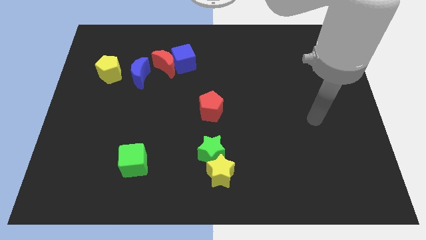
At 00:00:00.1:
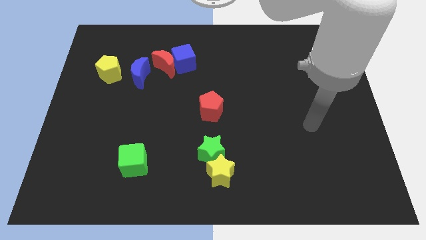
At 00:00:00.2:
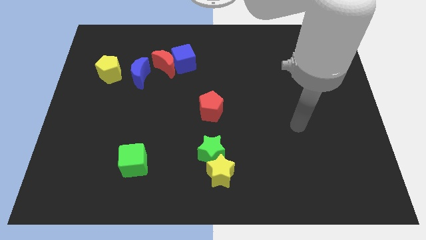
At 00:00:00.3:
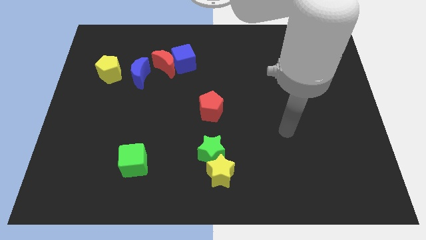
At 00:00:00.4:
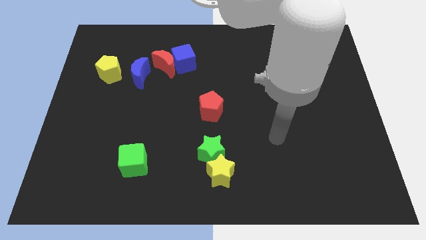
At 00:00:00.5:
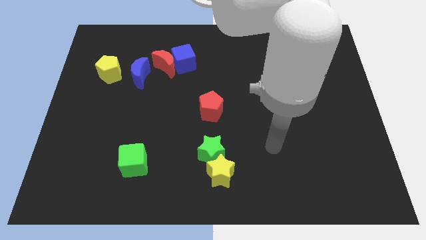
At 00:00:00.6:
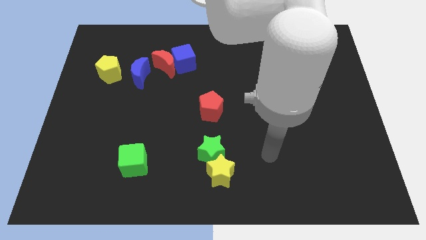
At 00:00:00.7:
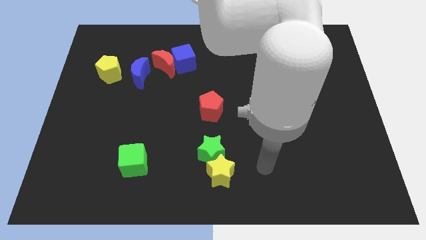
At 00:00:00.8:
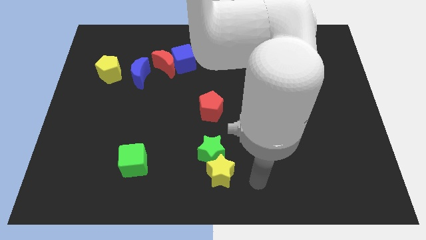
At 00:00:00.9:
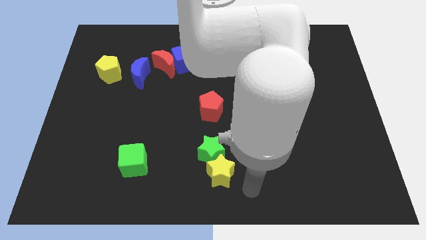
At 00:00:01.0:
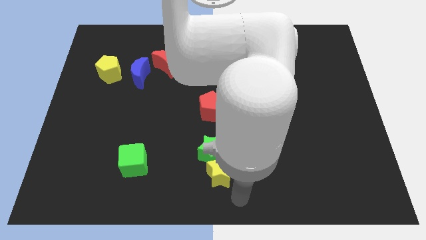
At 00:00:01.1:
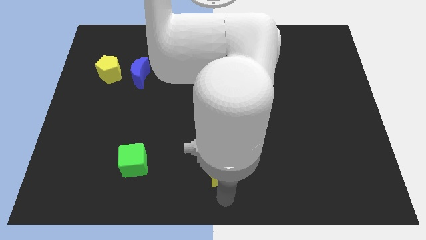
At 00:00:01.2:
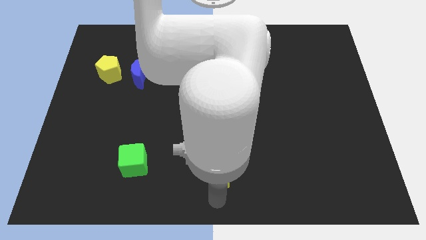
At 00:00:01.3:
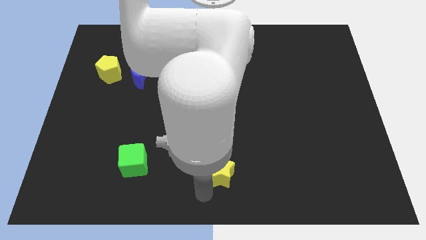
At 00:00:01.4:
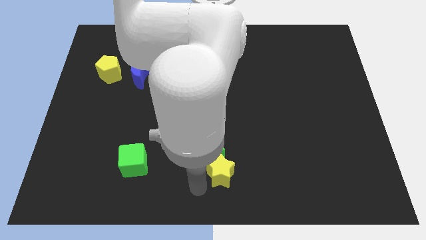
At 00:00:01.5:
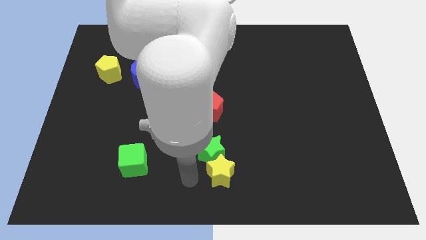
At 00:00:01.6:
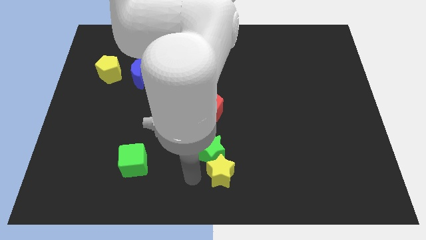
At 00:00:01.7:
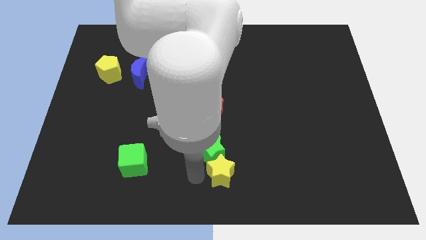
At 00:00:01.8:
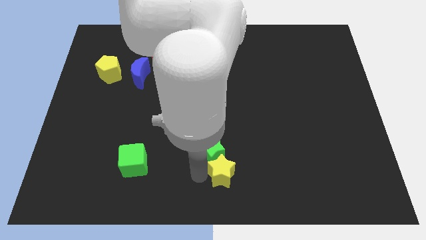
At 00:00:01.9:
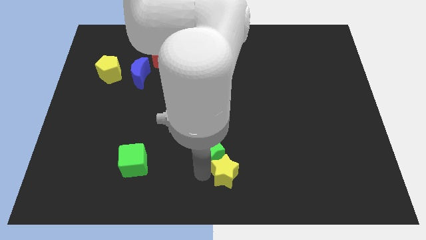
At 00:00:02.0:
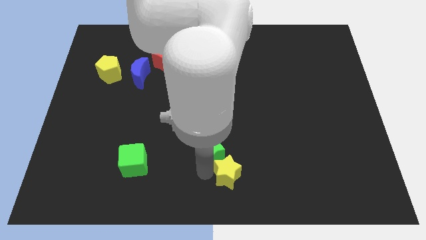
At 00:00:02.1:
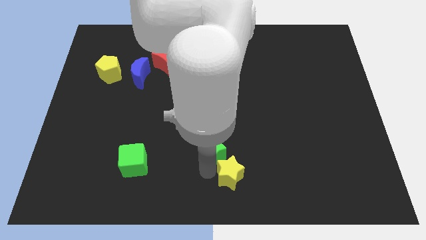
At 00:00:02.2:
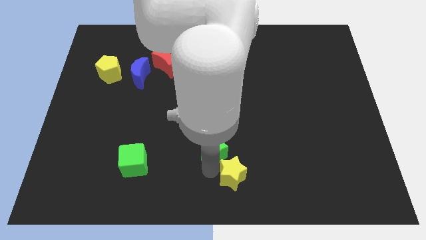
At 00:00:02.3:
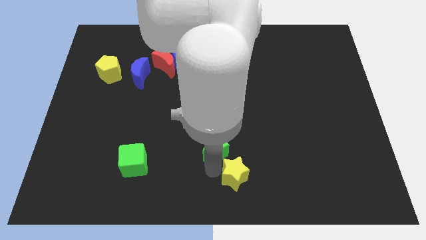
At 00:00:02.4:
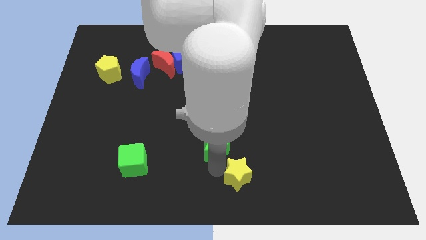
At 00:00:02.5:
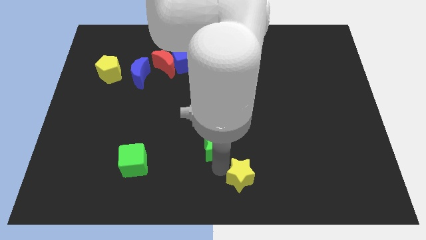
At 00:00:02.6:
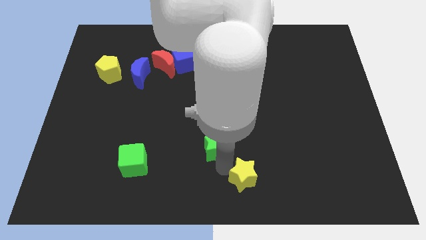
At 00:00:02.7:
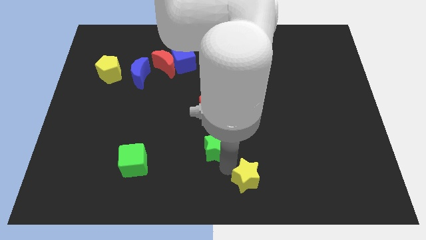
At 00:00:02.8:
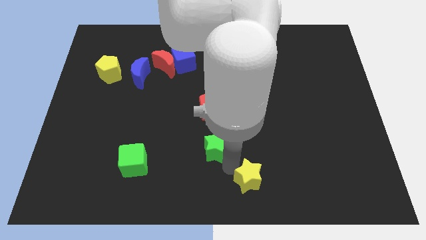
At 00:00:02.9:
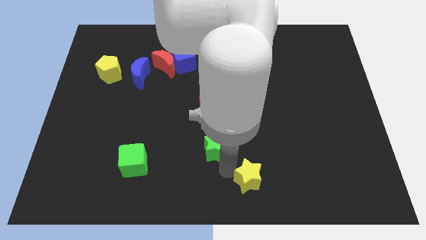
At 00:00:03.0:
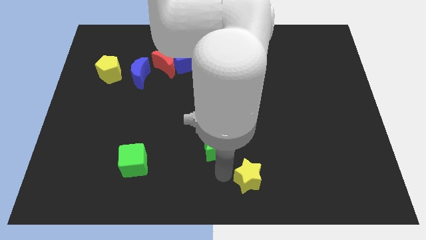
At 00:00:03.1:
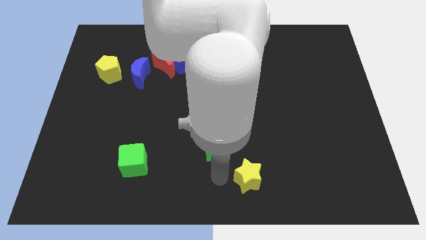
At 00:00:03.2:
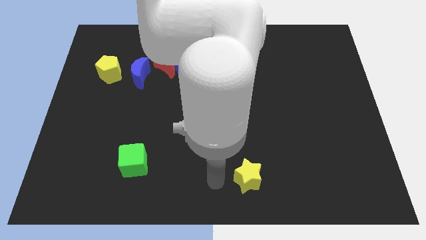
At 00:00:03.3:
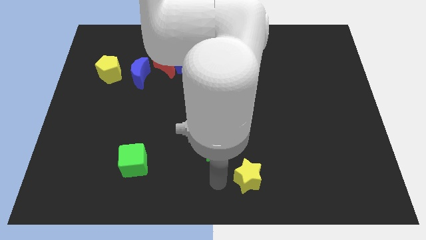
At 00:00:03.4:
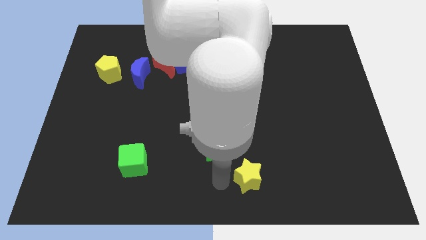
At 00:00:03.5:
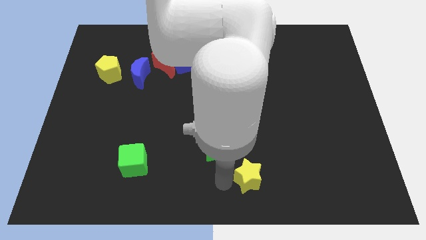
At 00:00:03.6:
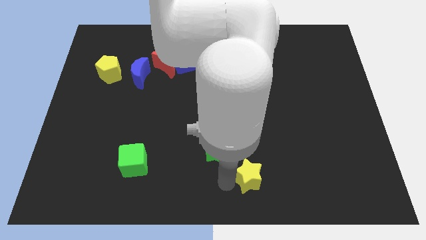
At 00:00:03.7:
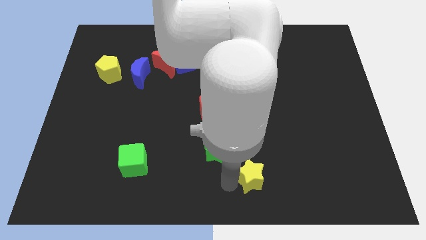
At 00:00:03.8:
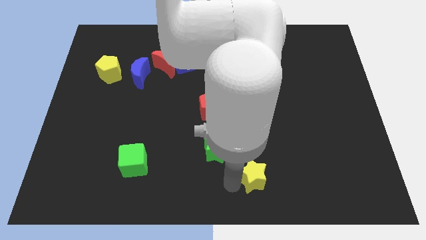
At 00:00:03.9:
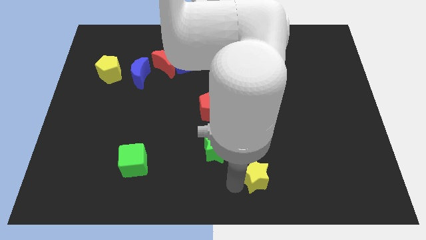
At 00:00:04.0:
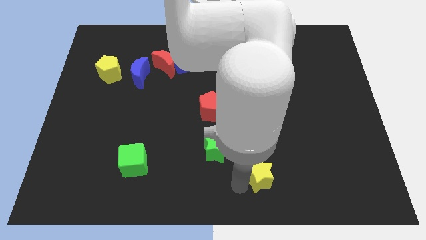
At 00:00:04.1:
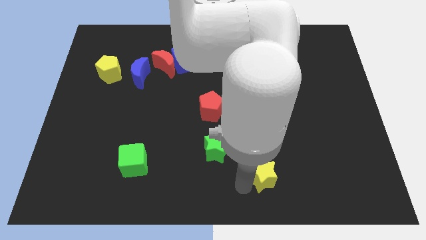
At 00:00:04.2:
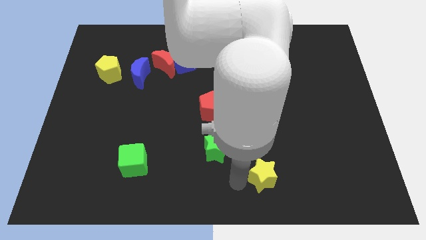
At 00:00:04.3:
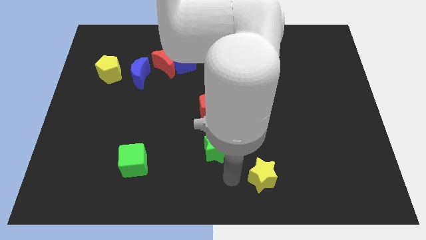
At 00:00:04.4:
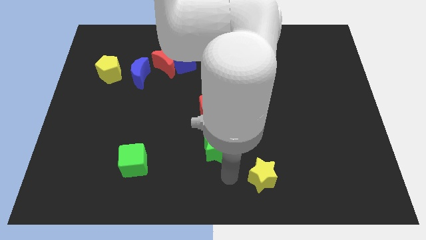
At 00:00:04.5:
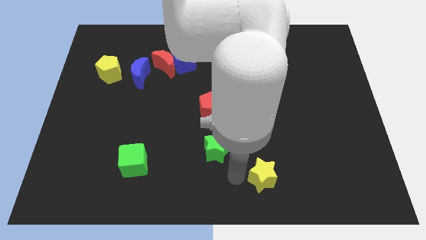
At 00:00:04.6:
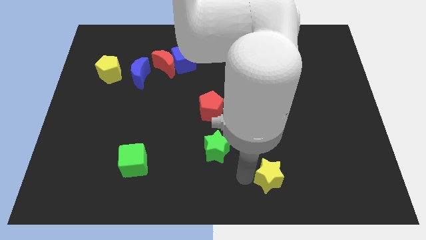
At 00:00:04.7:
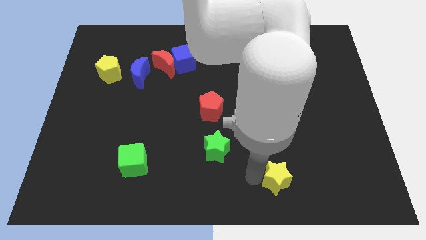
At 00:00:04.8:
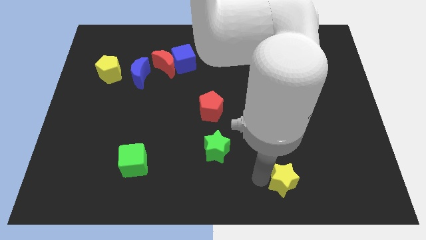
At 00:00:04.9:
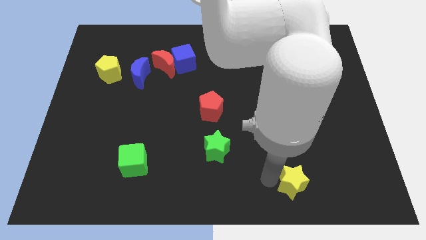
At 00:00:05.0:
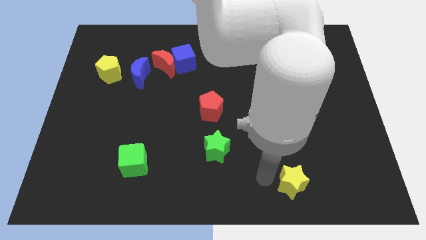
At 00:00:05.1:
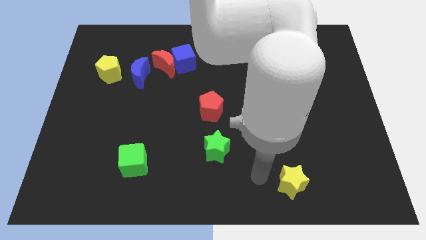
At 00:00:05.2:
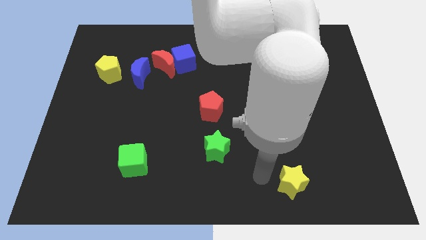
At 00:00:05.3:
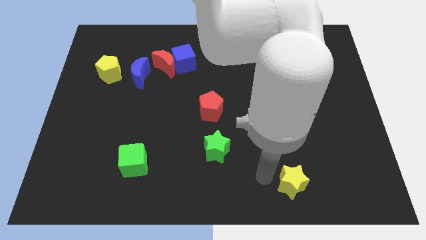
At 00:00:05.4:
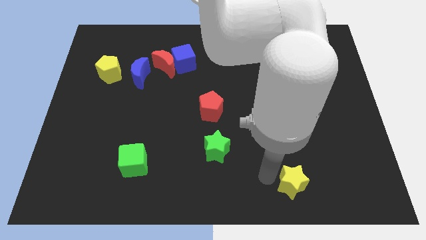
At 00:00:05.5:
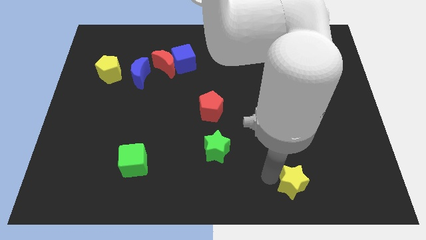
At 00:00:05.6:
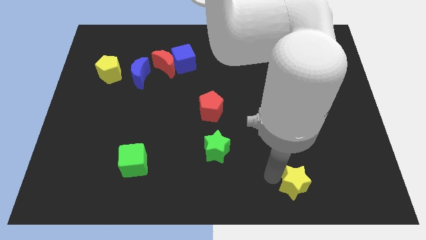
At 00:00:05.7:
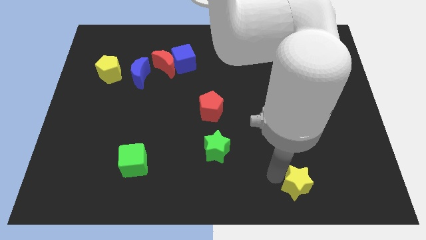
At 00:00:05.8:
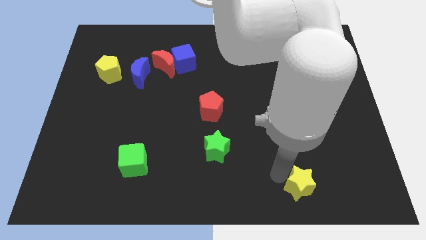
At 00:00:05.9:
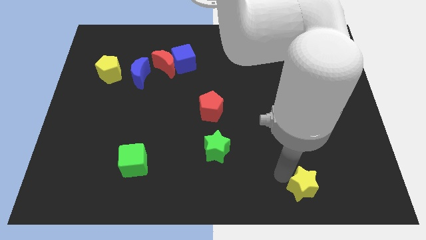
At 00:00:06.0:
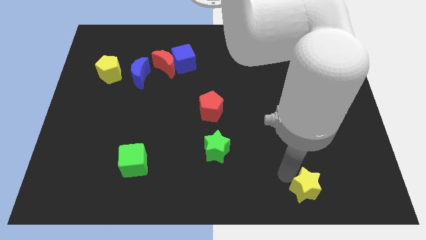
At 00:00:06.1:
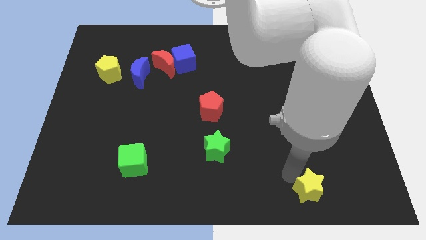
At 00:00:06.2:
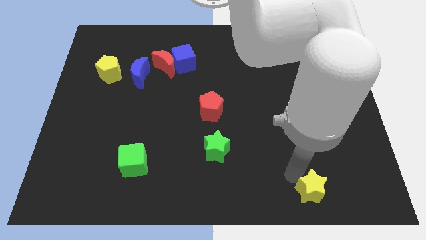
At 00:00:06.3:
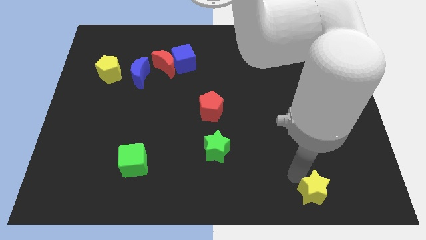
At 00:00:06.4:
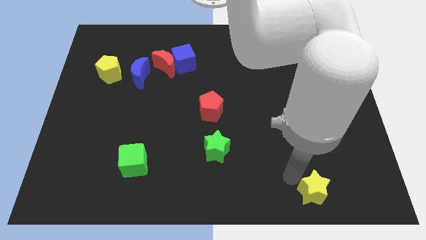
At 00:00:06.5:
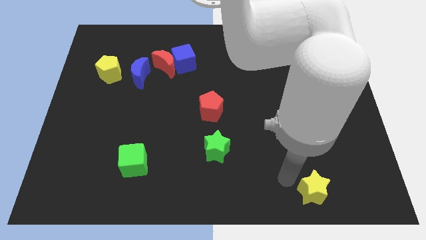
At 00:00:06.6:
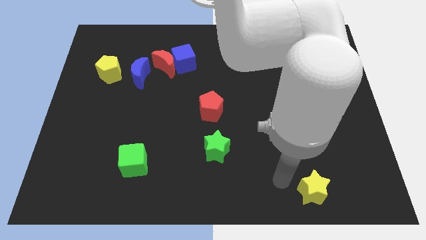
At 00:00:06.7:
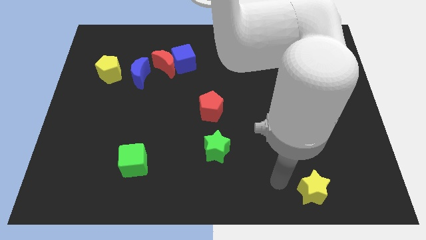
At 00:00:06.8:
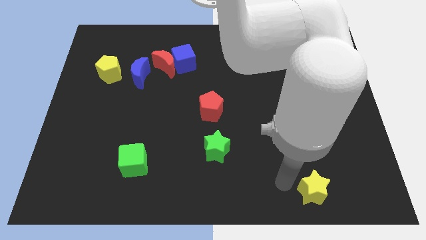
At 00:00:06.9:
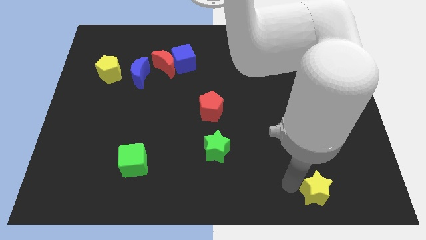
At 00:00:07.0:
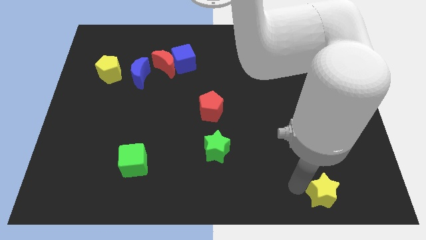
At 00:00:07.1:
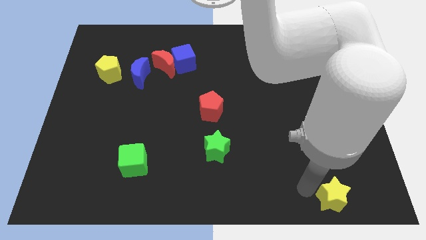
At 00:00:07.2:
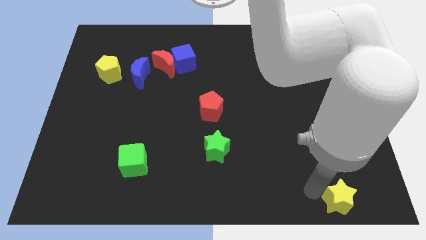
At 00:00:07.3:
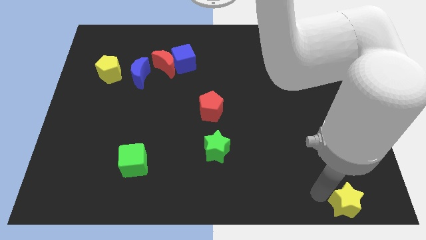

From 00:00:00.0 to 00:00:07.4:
move the yellow star to the bottom right corner
